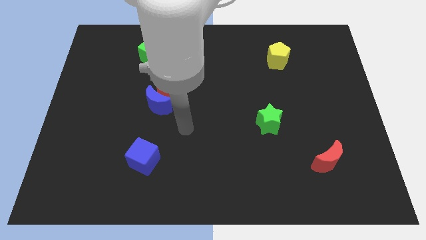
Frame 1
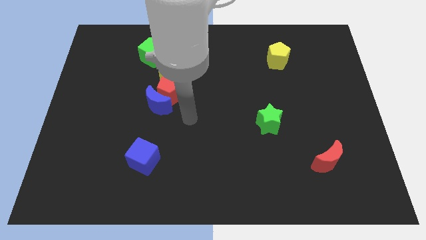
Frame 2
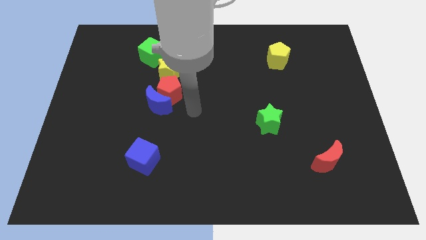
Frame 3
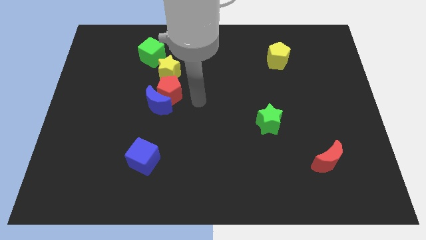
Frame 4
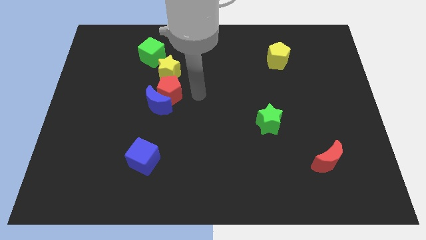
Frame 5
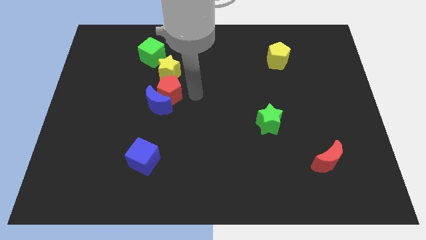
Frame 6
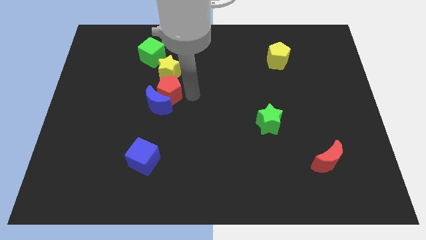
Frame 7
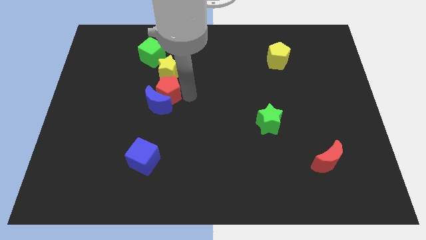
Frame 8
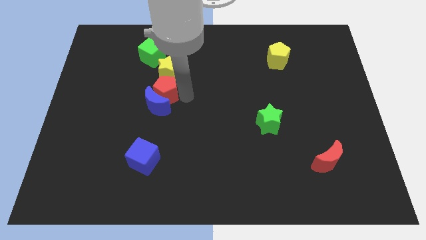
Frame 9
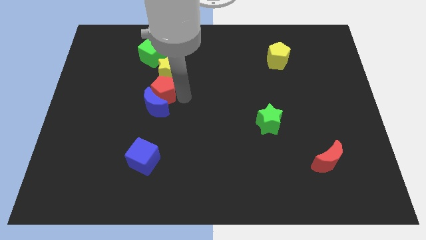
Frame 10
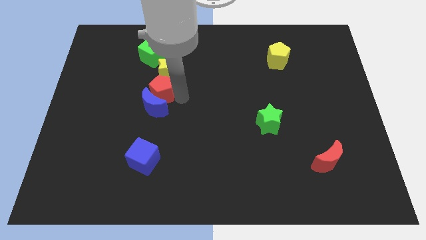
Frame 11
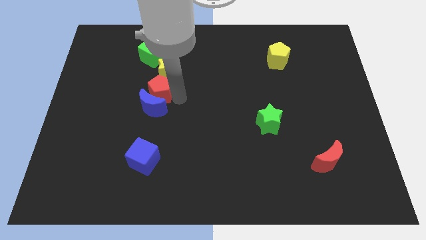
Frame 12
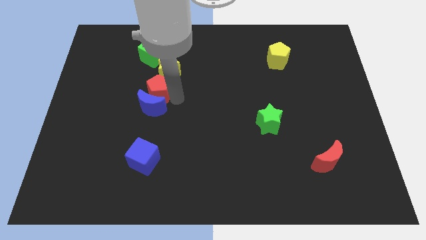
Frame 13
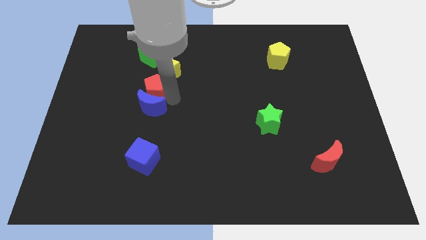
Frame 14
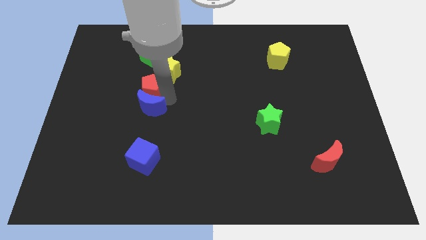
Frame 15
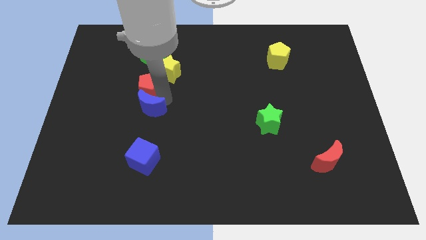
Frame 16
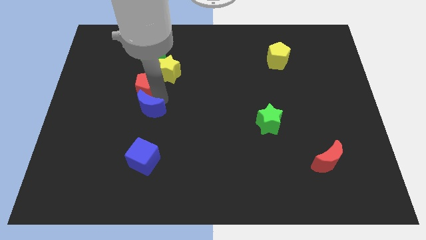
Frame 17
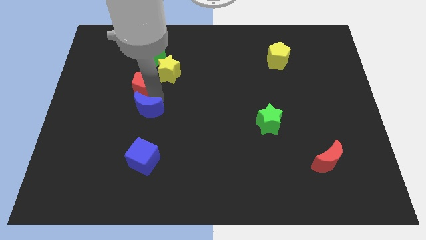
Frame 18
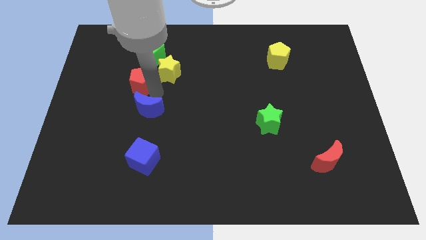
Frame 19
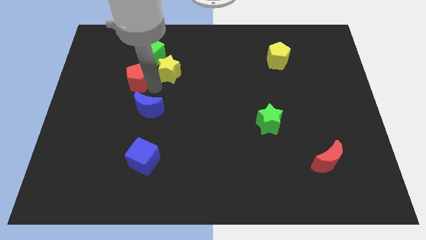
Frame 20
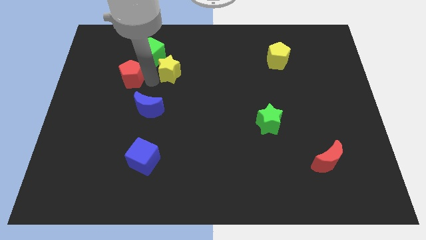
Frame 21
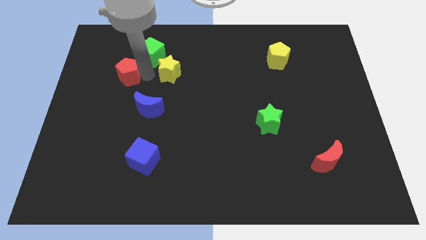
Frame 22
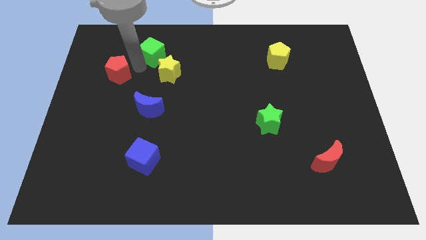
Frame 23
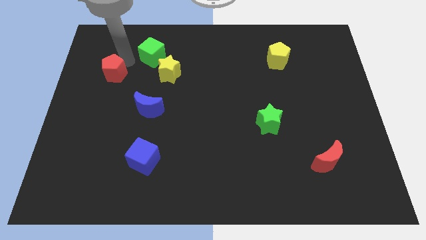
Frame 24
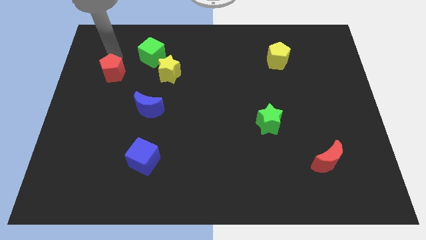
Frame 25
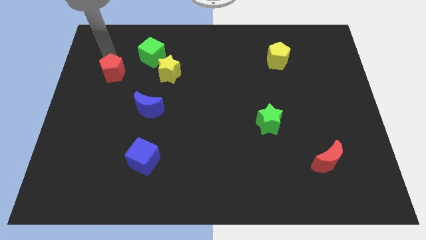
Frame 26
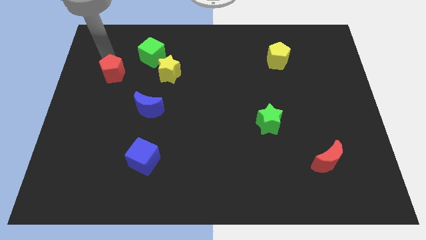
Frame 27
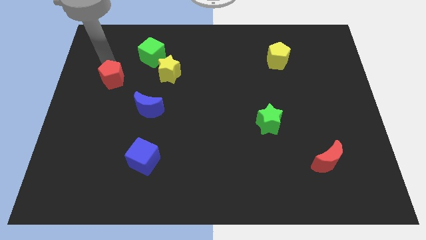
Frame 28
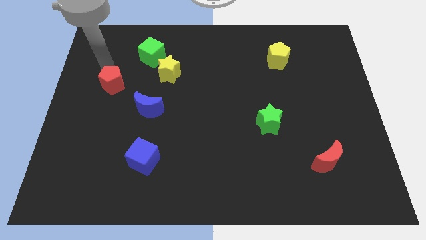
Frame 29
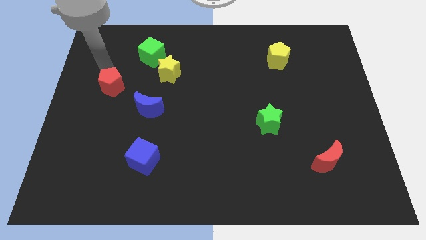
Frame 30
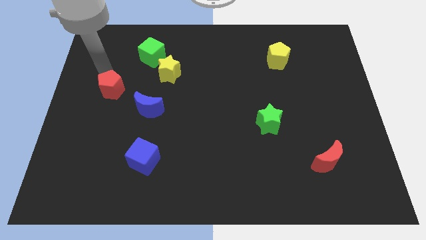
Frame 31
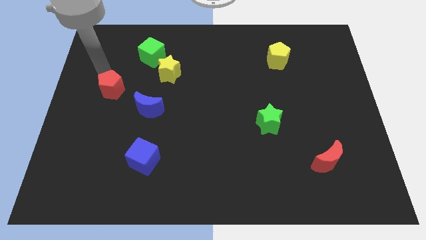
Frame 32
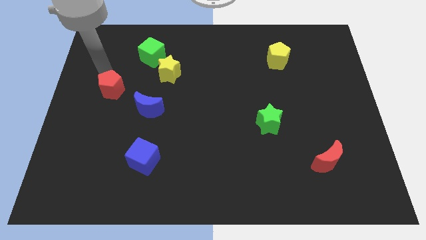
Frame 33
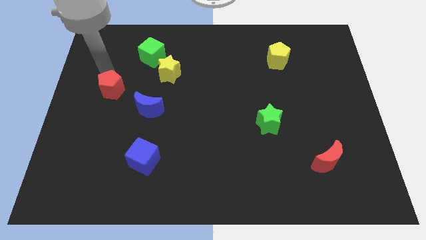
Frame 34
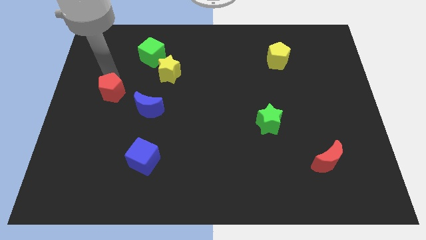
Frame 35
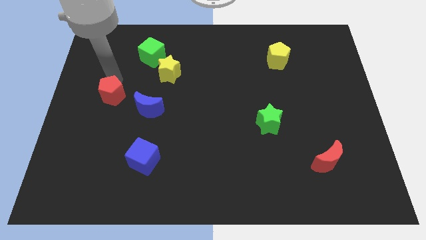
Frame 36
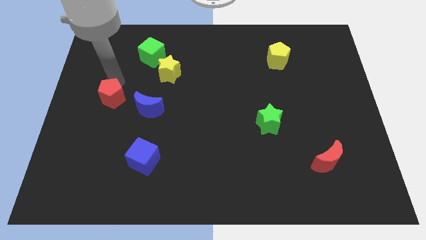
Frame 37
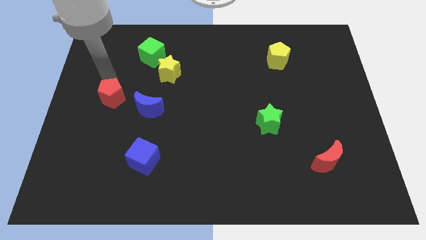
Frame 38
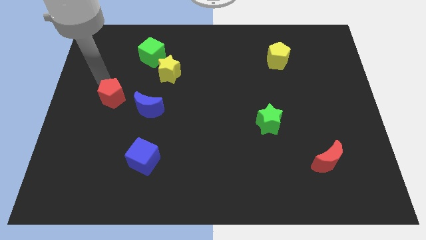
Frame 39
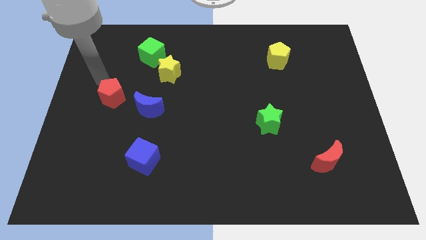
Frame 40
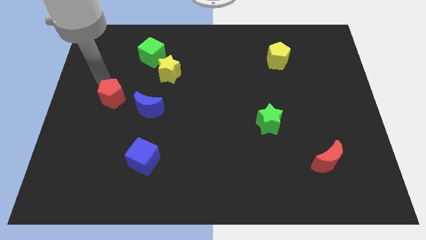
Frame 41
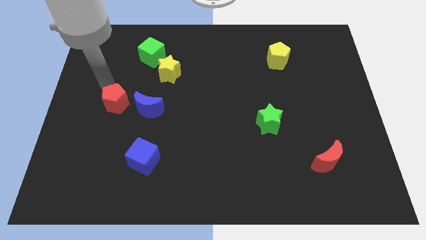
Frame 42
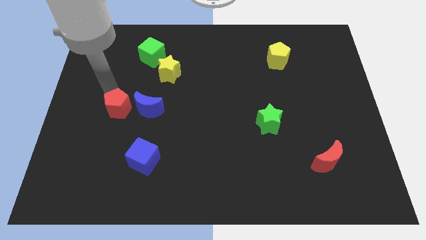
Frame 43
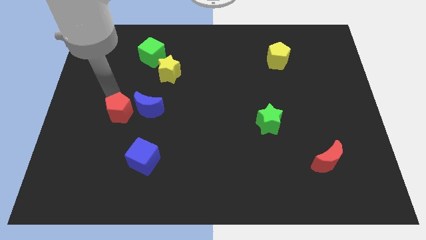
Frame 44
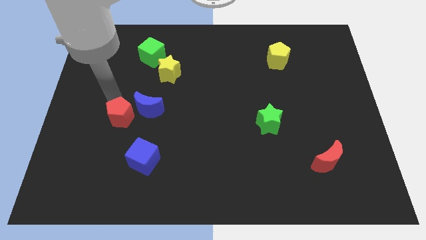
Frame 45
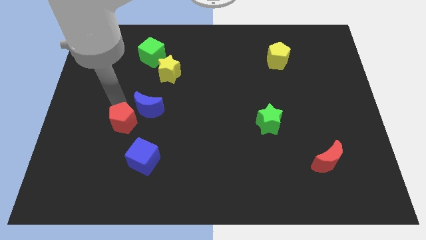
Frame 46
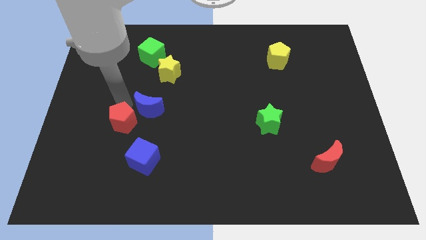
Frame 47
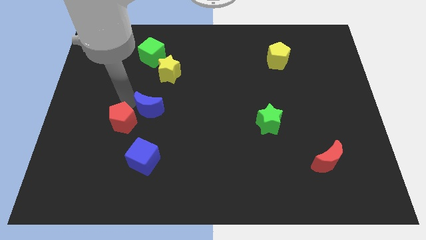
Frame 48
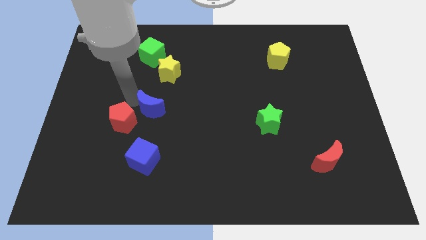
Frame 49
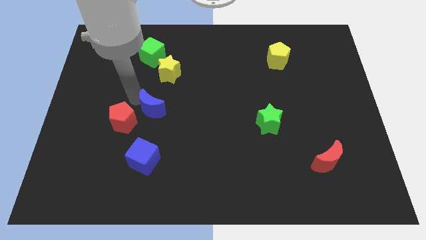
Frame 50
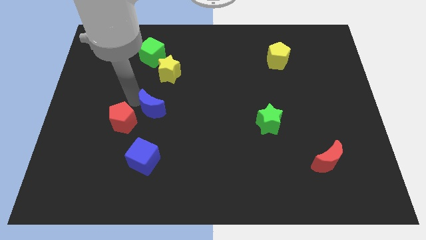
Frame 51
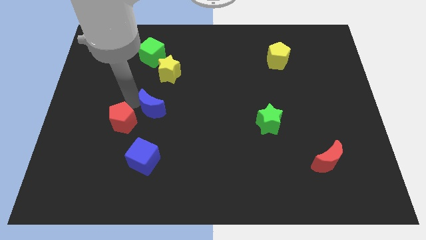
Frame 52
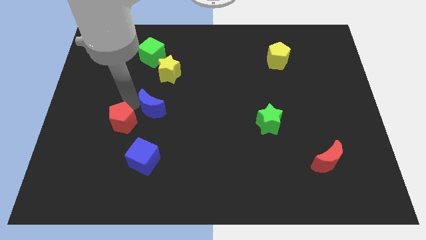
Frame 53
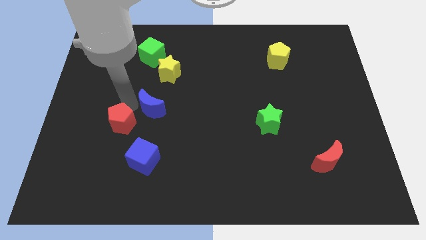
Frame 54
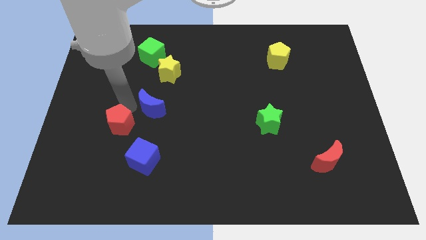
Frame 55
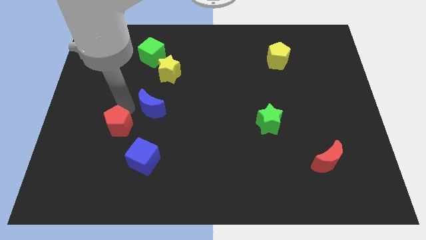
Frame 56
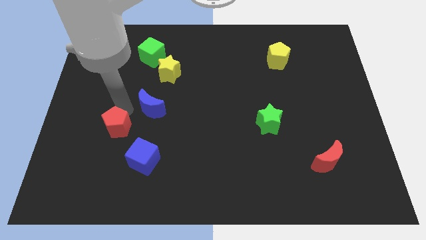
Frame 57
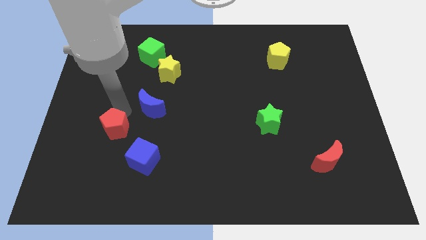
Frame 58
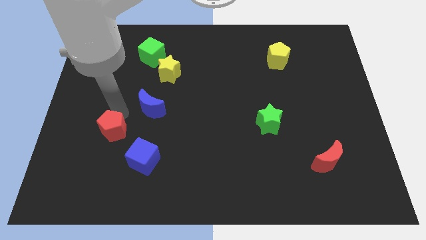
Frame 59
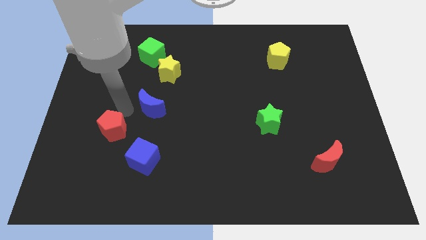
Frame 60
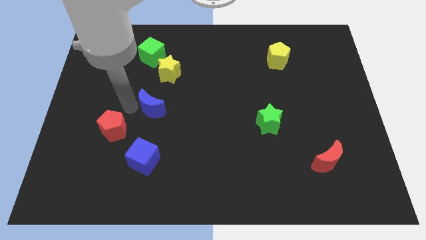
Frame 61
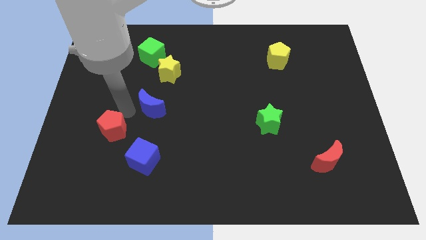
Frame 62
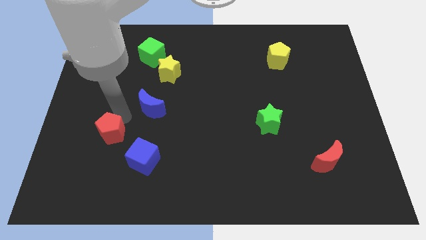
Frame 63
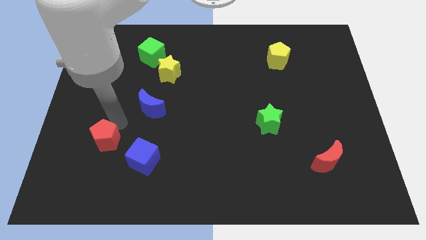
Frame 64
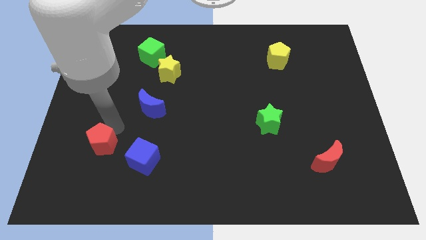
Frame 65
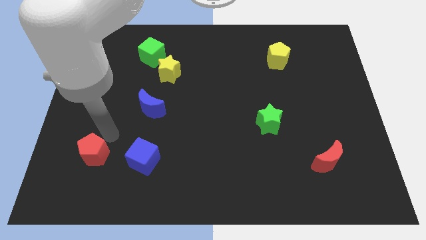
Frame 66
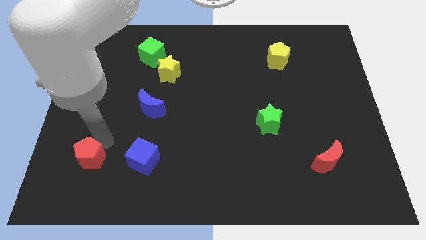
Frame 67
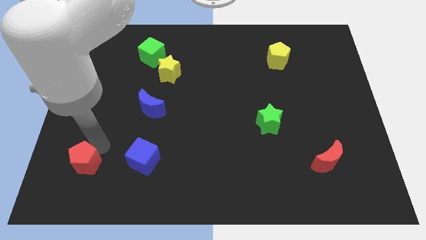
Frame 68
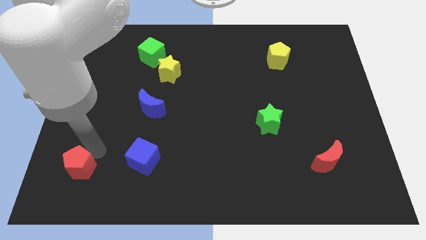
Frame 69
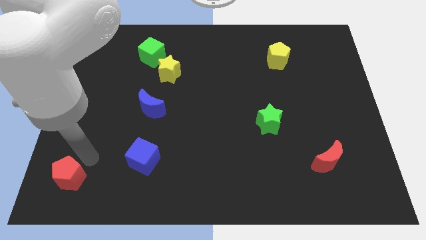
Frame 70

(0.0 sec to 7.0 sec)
move the red pentagon to the bottom left

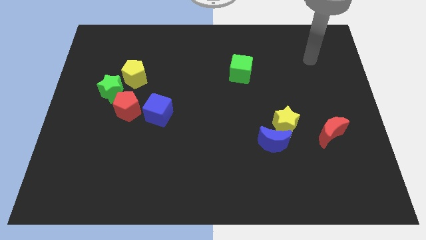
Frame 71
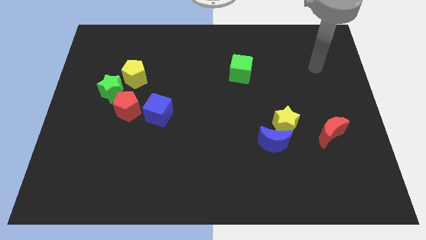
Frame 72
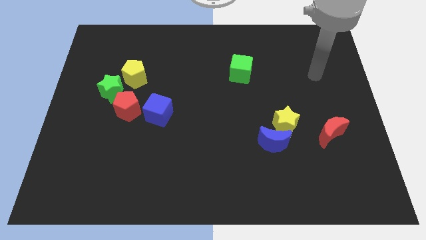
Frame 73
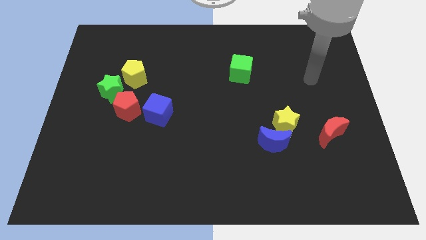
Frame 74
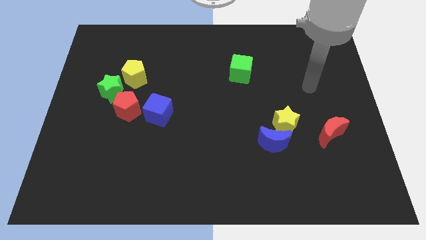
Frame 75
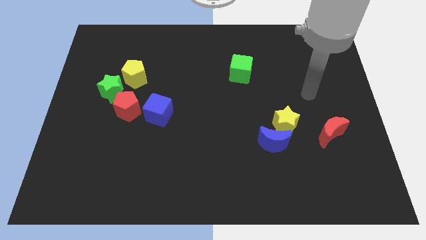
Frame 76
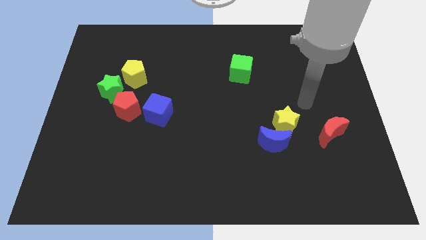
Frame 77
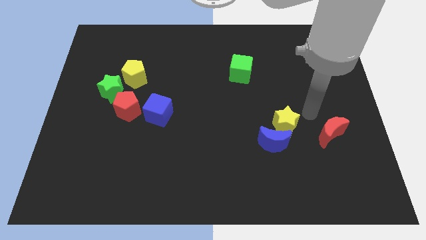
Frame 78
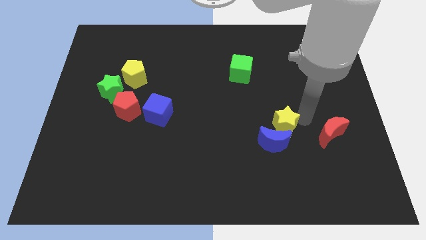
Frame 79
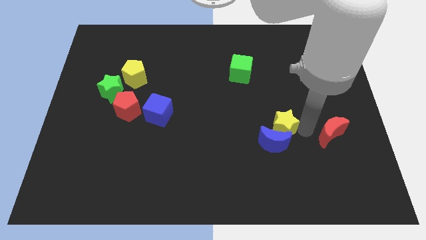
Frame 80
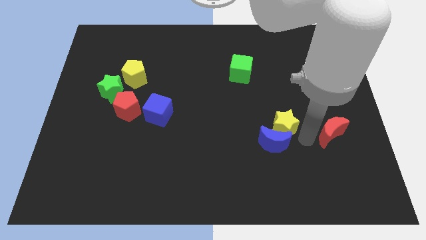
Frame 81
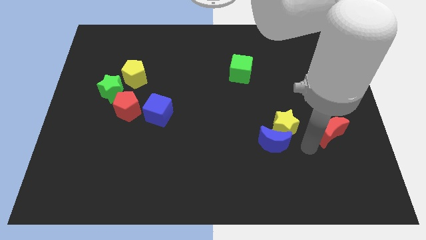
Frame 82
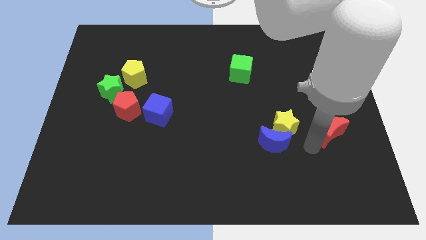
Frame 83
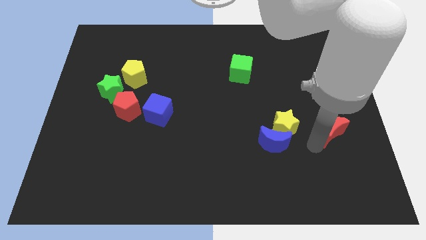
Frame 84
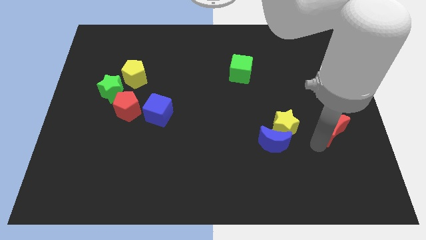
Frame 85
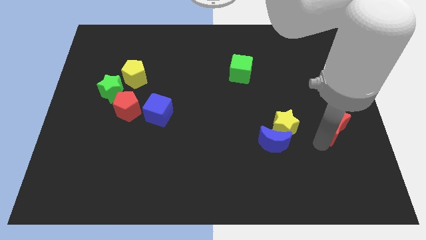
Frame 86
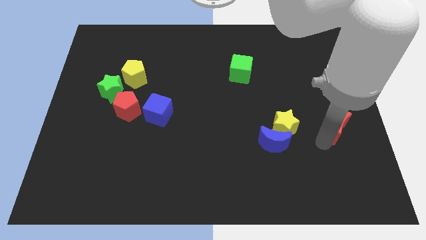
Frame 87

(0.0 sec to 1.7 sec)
push the red moon to the right side of the board
